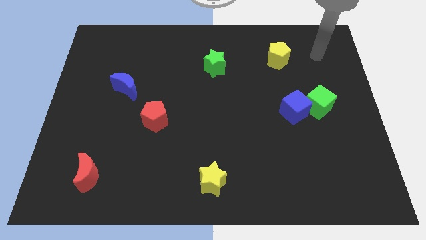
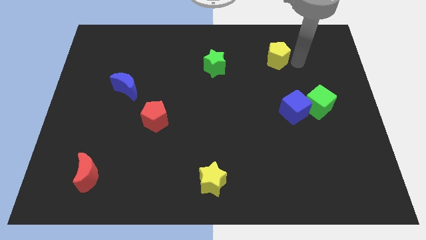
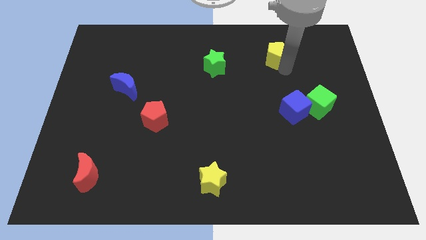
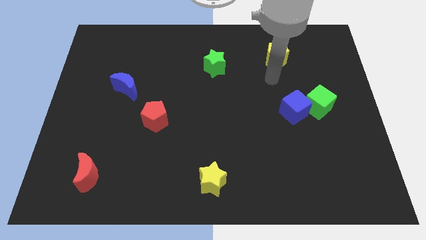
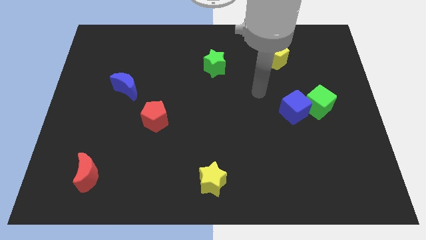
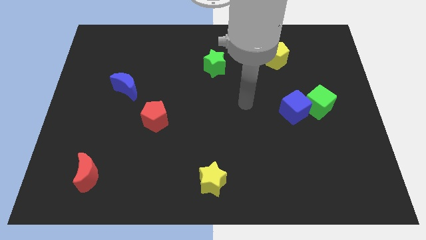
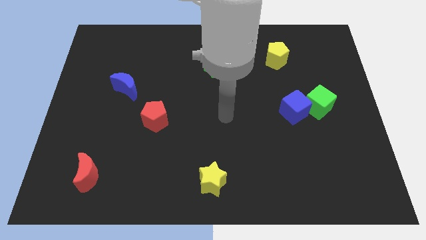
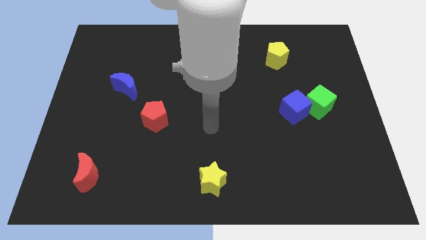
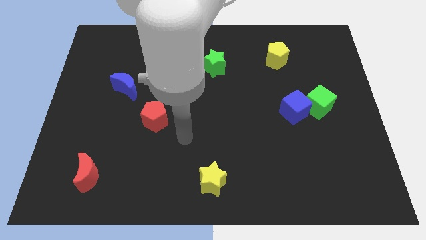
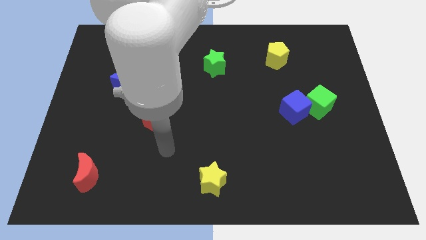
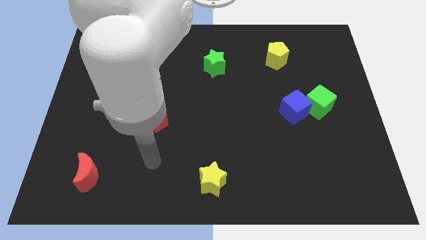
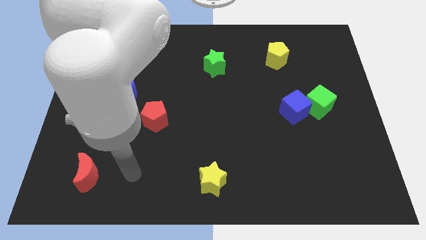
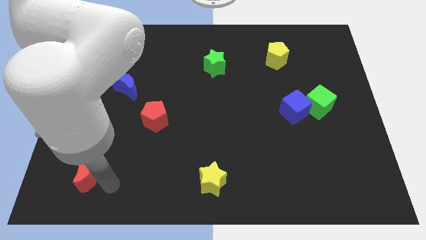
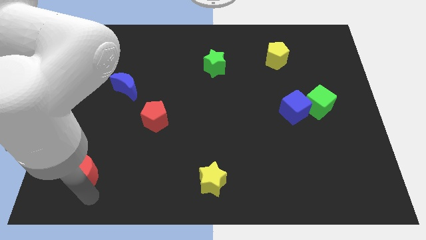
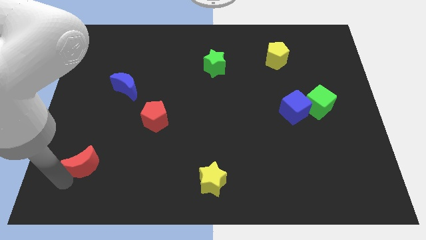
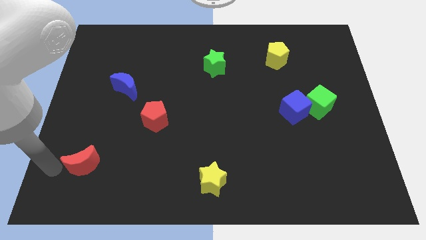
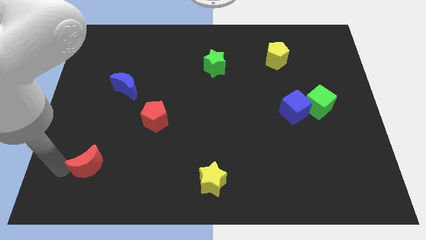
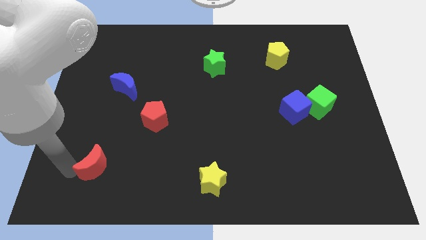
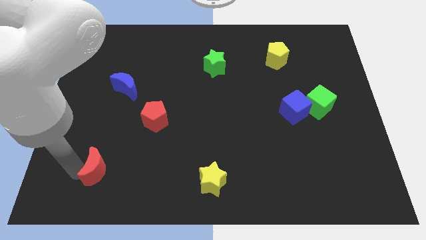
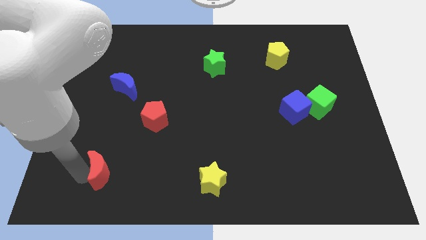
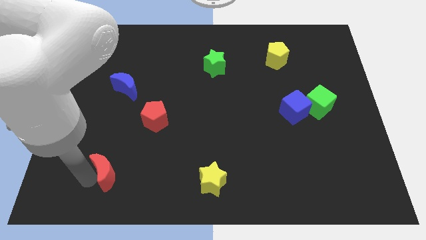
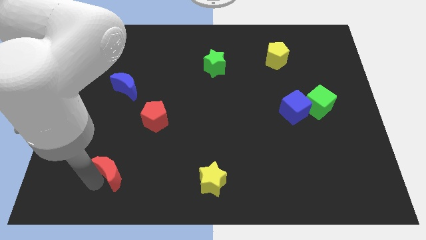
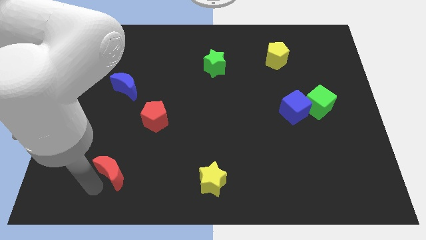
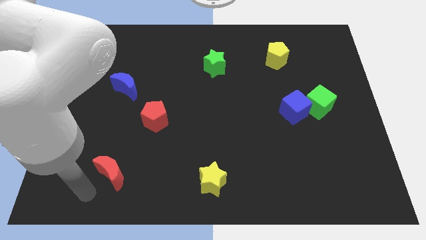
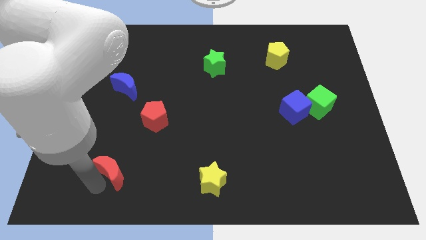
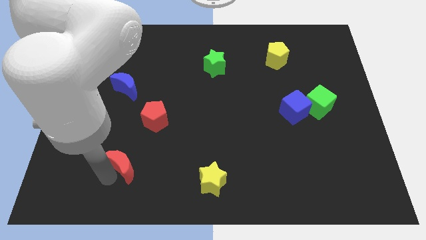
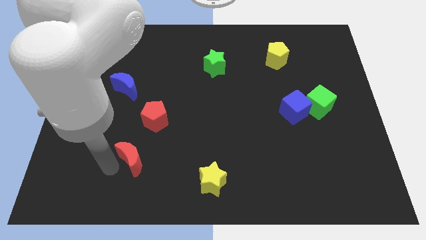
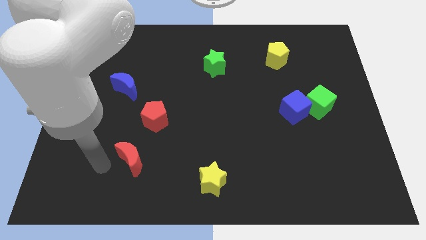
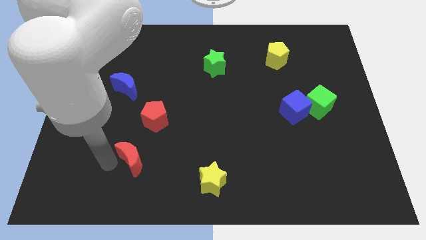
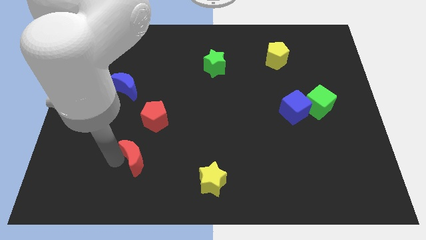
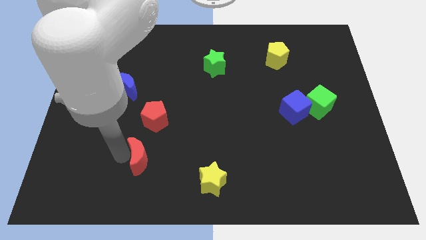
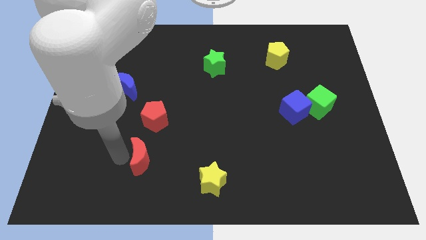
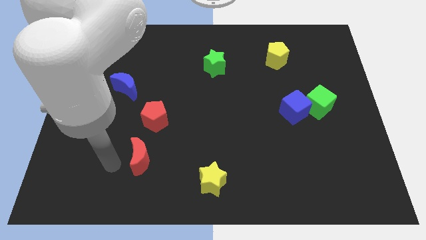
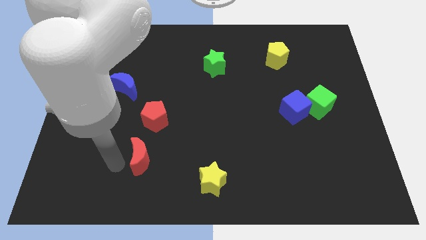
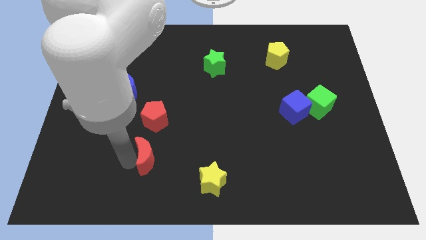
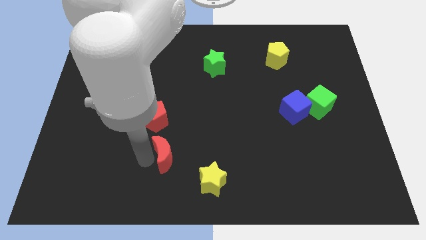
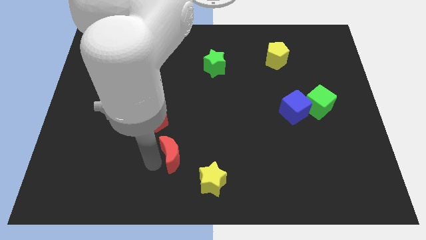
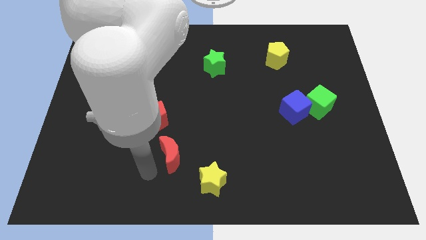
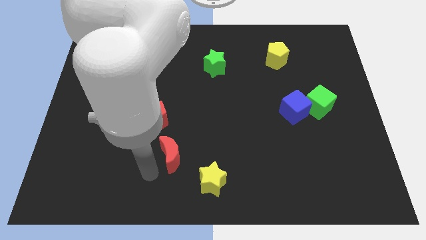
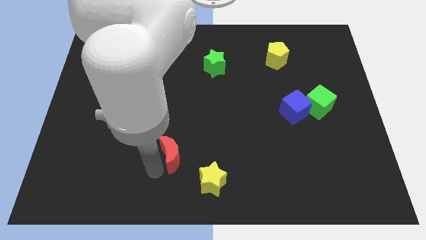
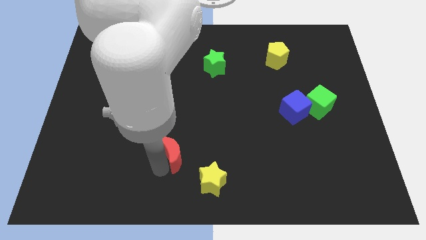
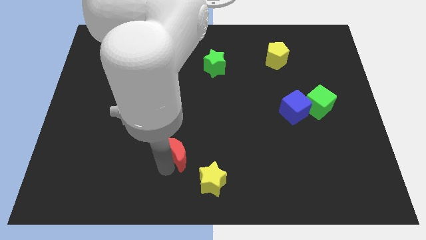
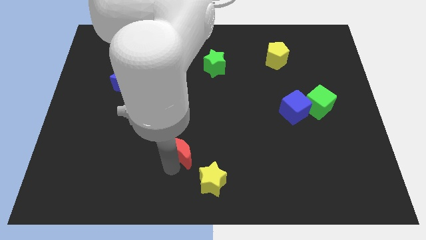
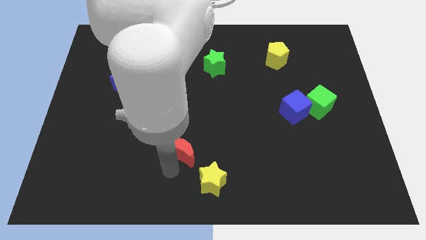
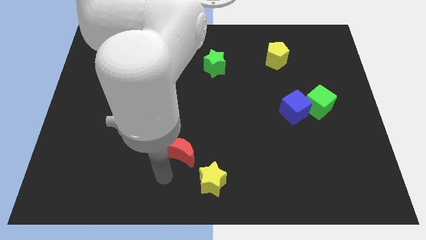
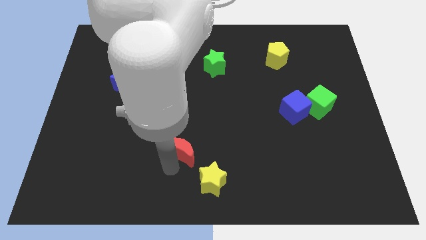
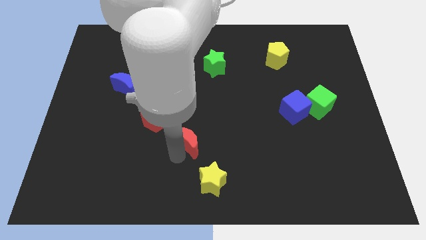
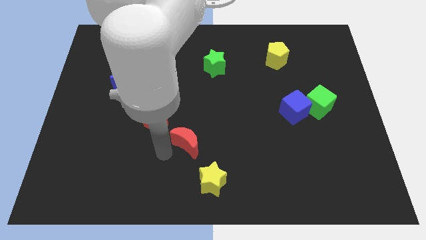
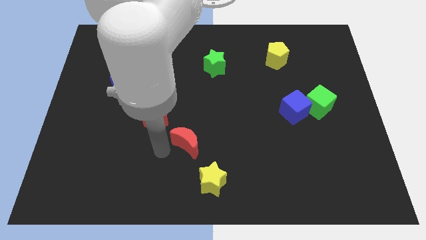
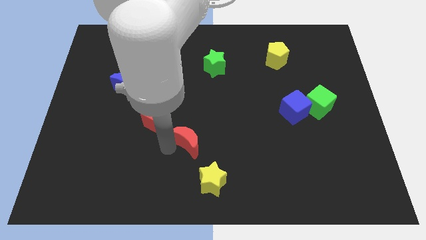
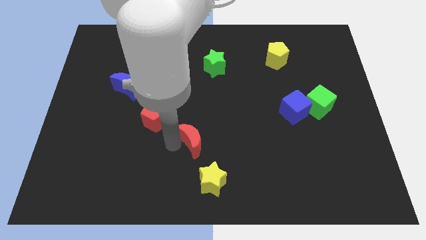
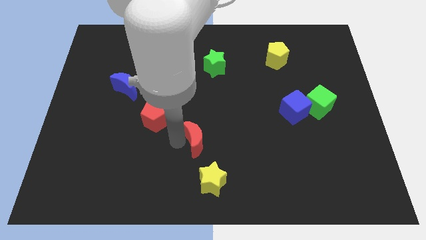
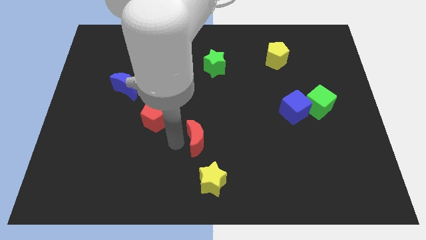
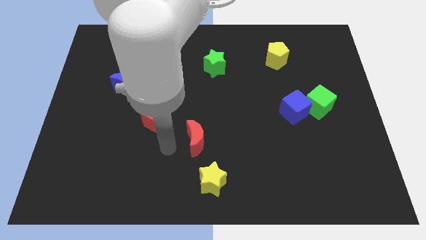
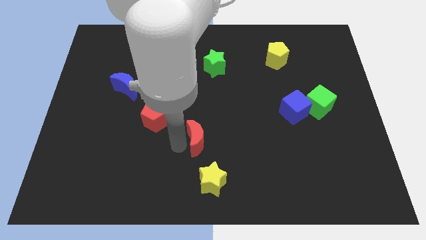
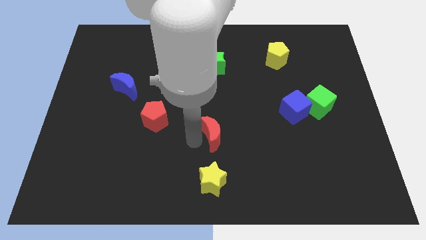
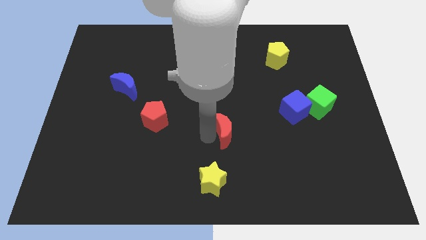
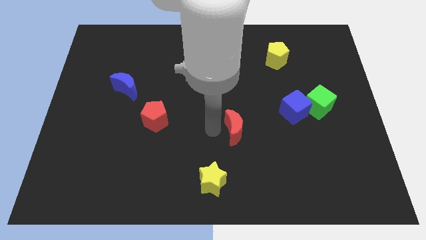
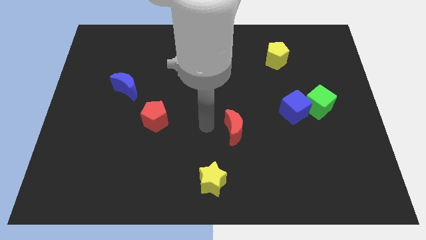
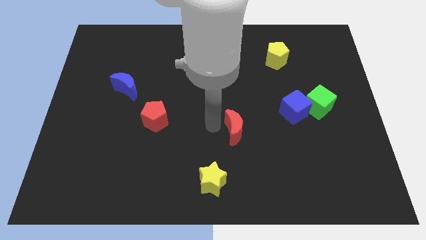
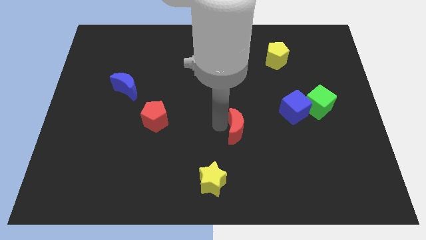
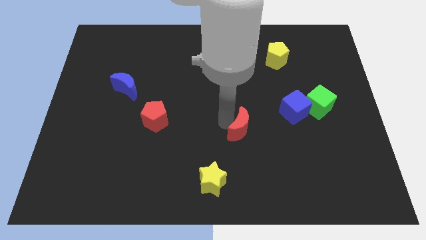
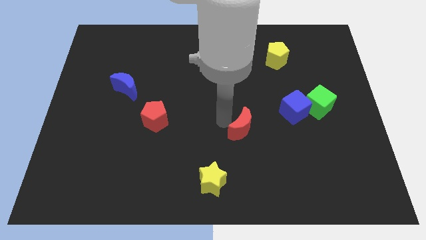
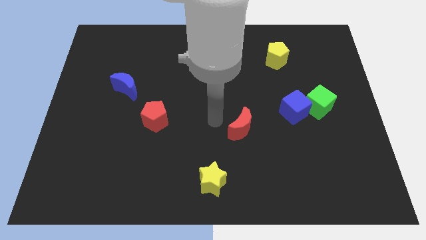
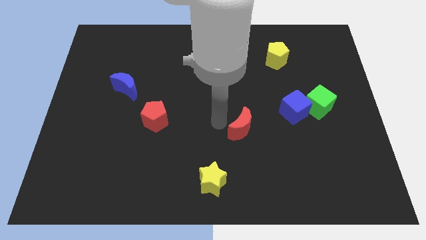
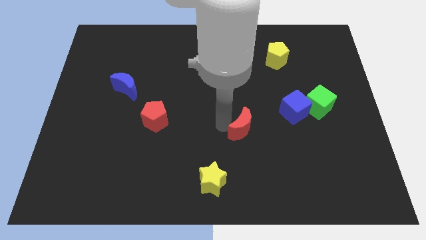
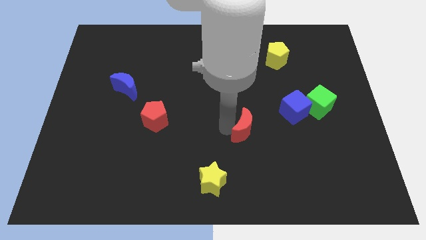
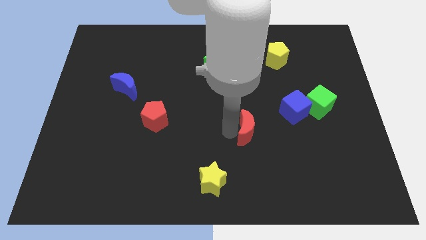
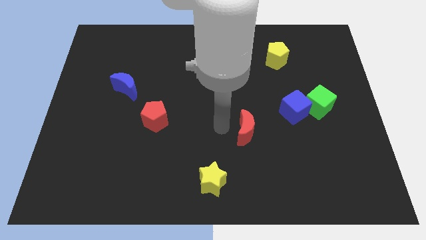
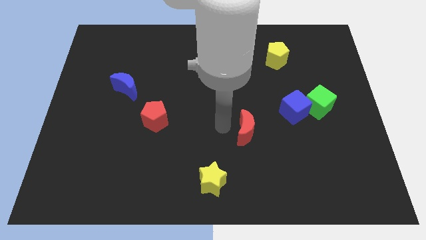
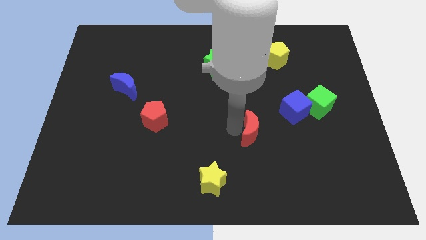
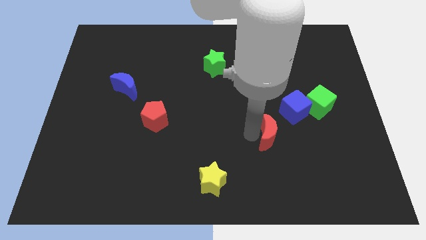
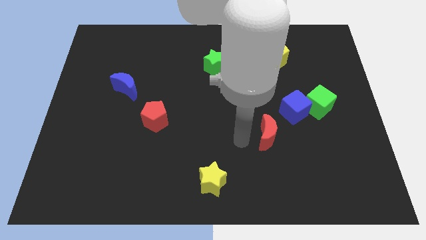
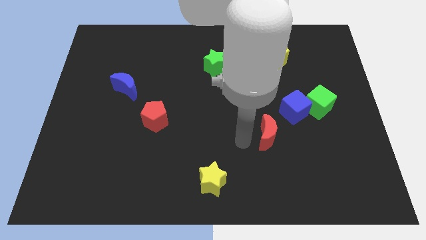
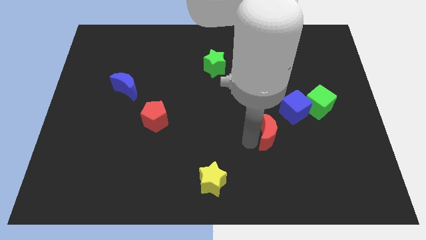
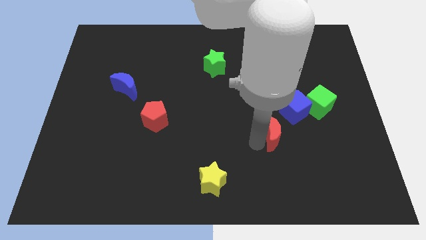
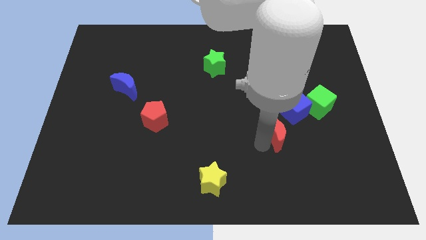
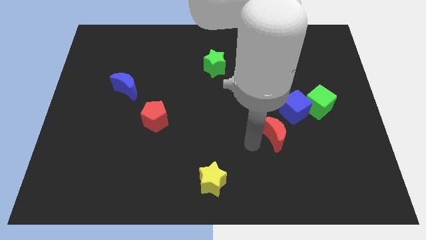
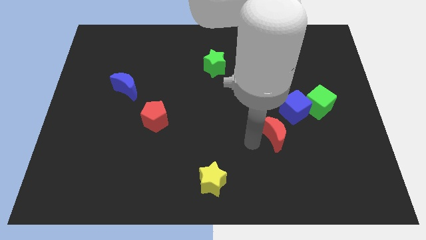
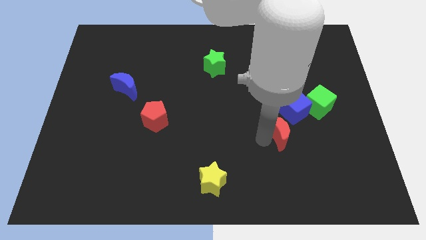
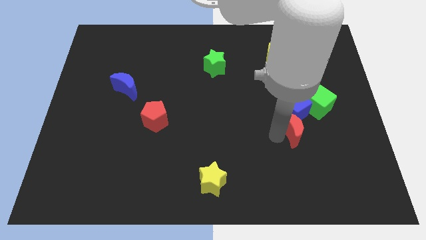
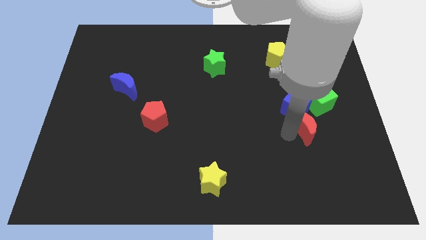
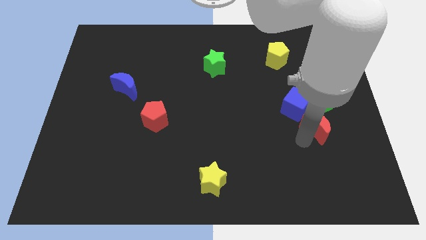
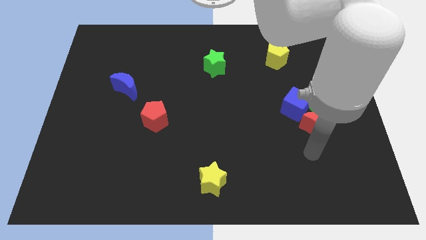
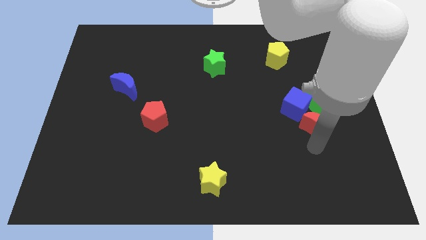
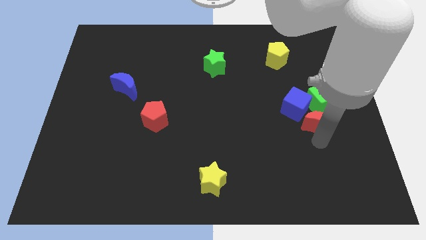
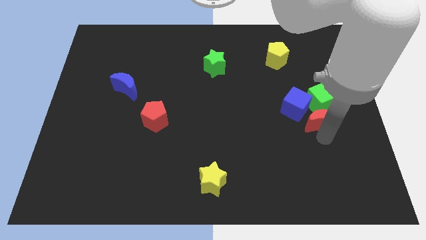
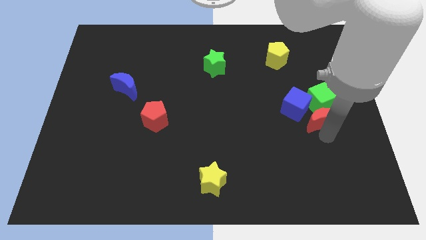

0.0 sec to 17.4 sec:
move the red moon close to the green cube
